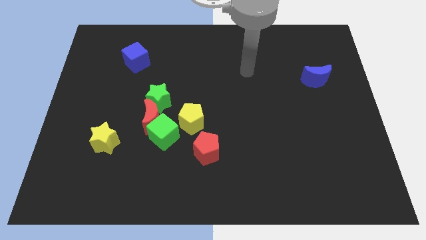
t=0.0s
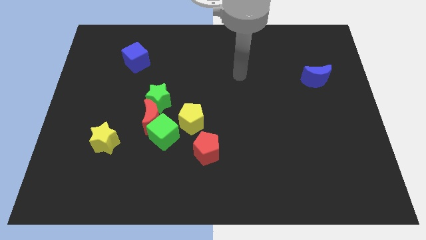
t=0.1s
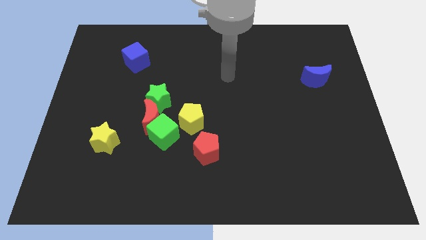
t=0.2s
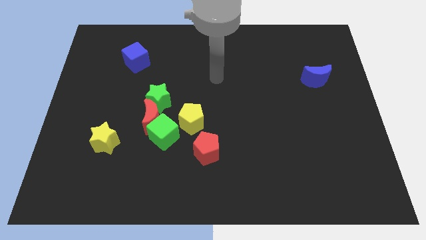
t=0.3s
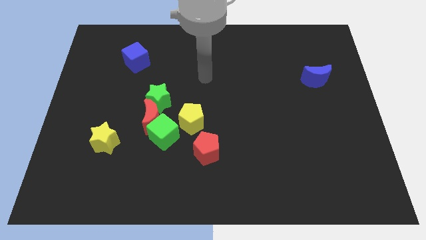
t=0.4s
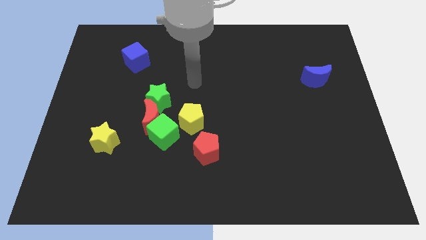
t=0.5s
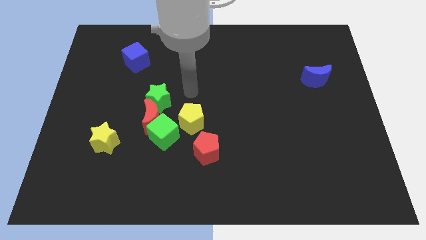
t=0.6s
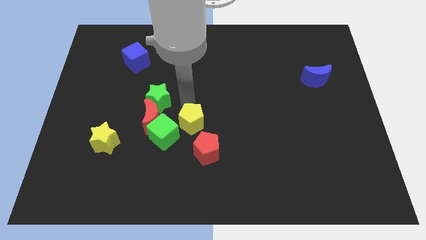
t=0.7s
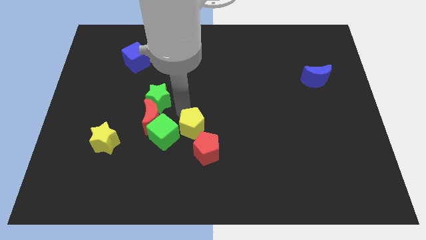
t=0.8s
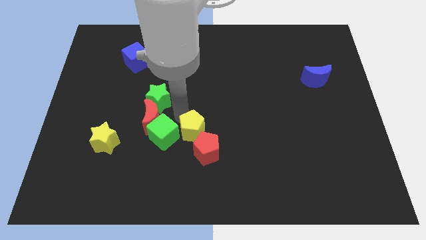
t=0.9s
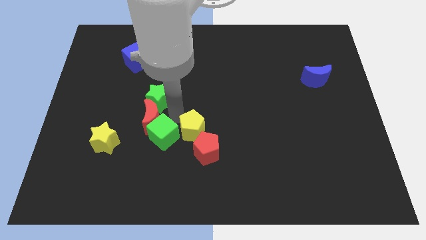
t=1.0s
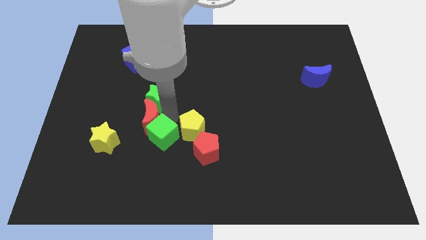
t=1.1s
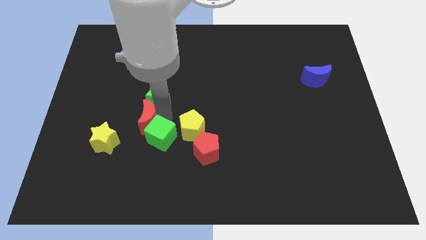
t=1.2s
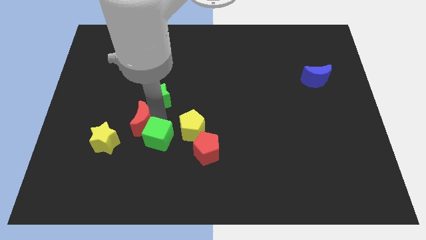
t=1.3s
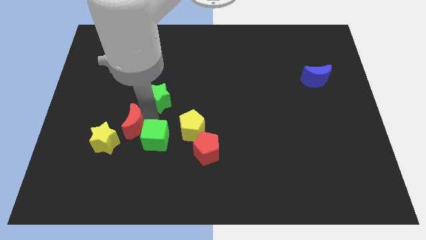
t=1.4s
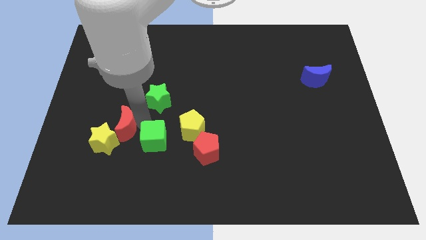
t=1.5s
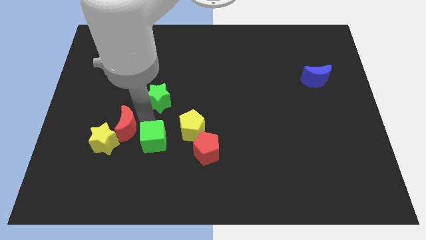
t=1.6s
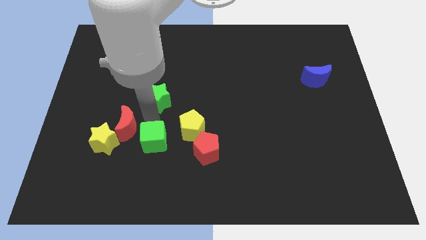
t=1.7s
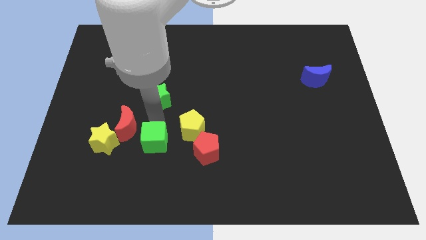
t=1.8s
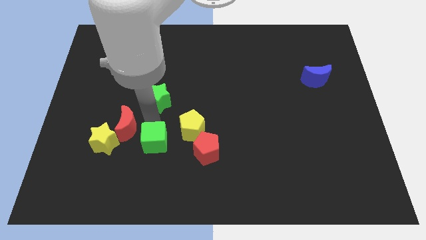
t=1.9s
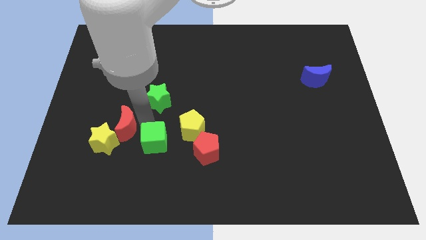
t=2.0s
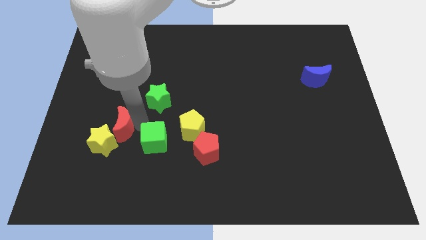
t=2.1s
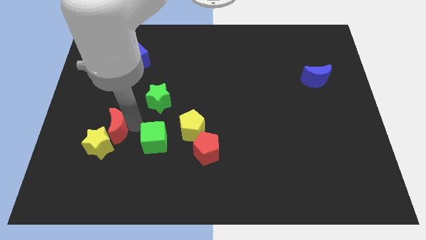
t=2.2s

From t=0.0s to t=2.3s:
pull the red moon apart from the green cube, green star, and yellow pentagon

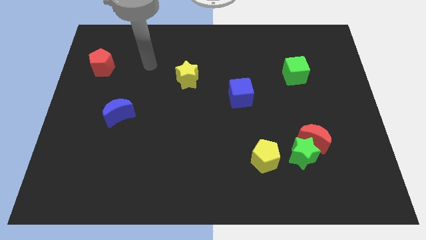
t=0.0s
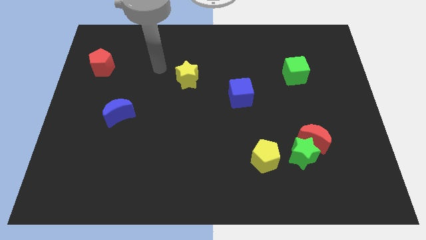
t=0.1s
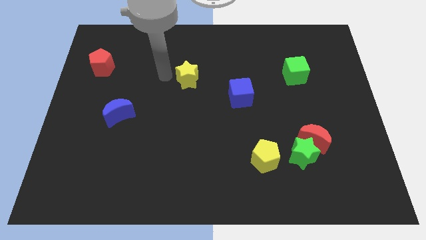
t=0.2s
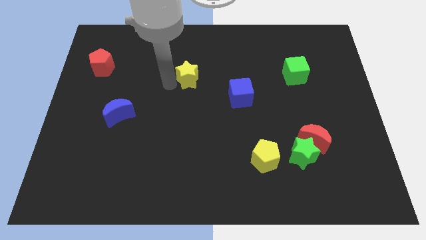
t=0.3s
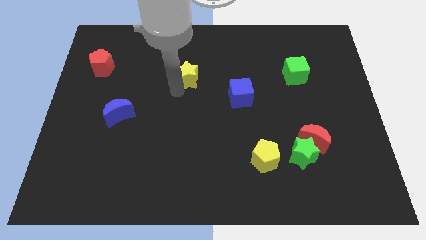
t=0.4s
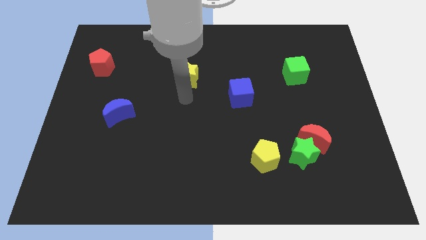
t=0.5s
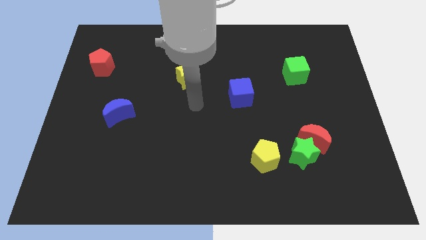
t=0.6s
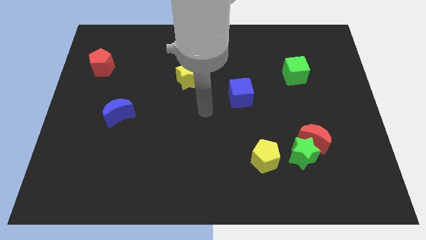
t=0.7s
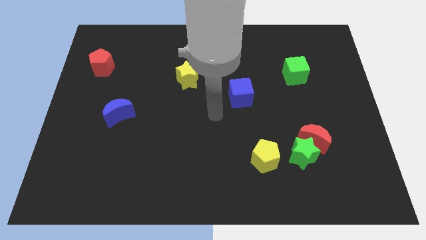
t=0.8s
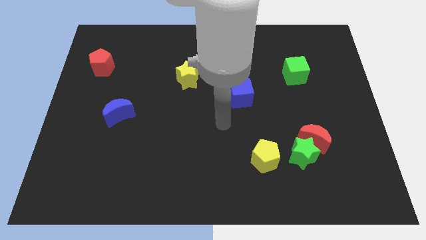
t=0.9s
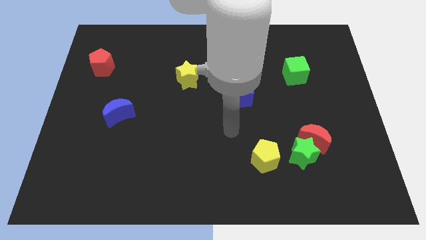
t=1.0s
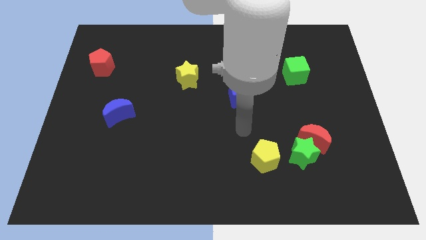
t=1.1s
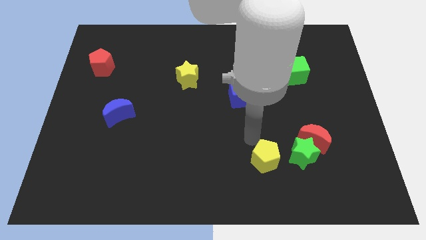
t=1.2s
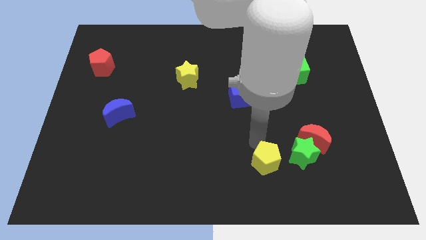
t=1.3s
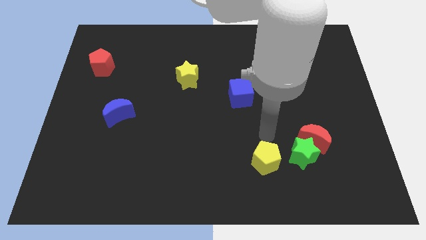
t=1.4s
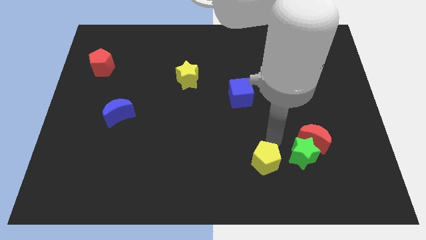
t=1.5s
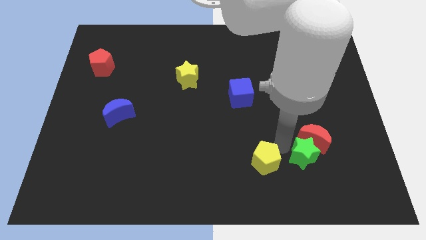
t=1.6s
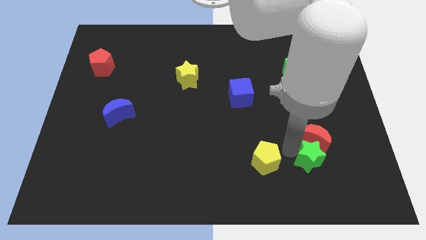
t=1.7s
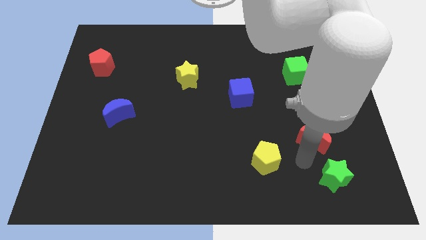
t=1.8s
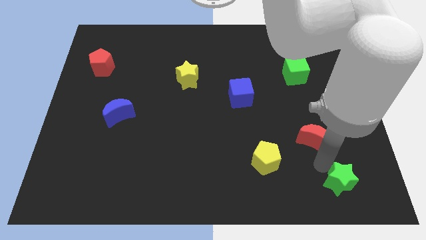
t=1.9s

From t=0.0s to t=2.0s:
separate the red moon from the green star

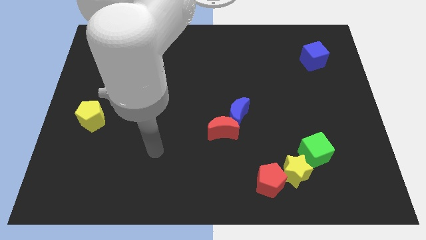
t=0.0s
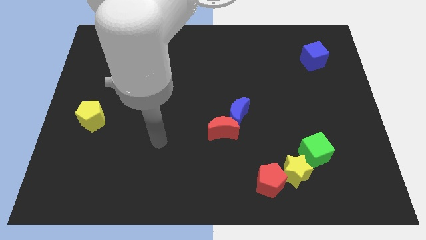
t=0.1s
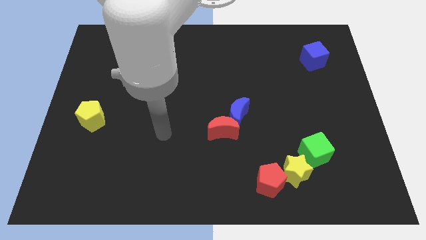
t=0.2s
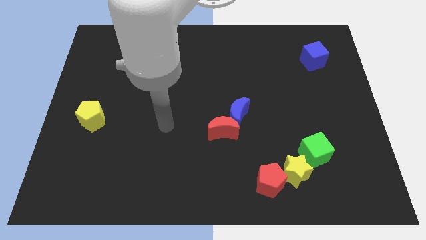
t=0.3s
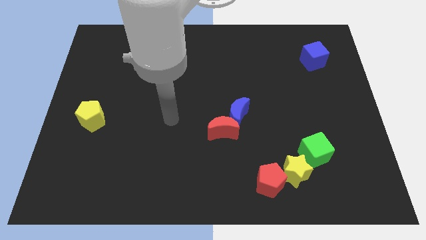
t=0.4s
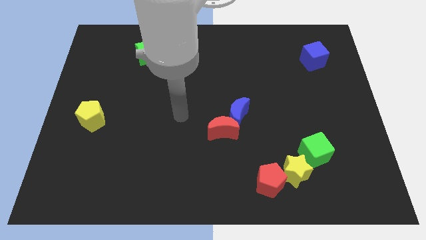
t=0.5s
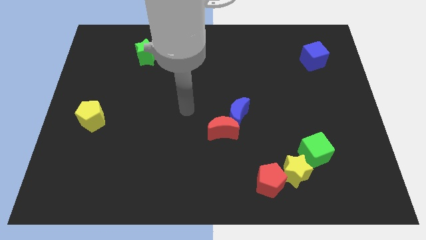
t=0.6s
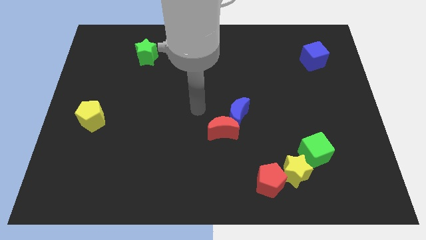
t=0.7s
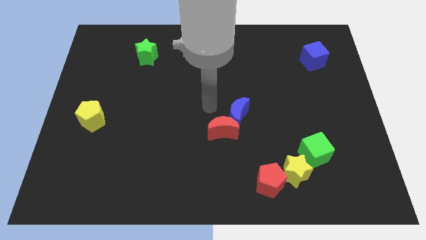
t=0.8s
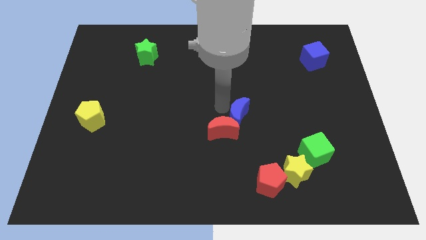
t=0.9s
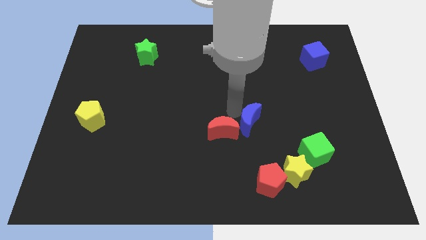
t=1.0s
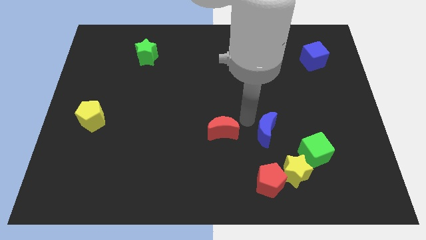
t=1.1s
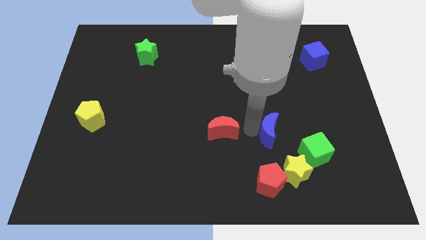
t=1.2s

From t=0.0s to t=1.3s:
separate the red moon from the blue moon

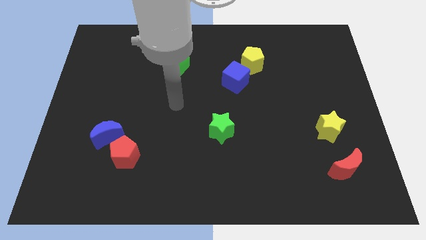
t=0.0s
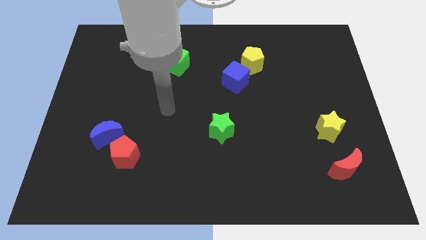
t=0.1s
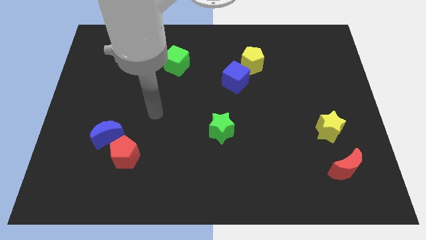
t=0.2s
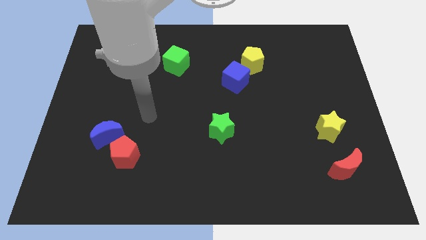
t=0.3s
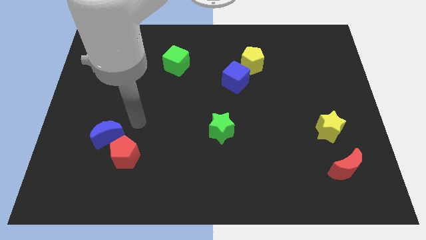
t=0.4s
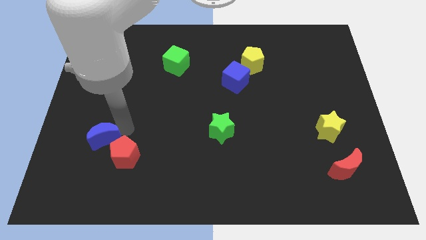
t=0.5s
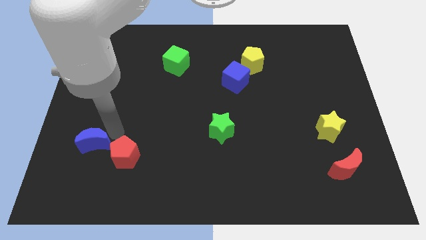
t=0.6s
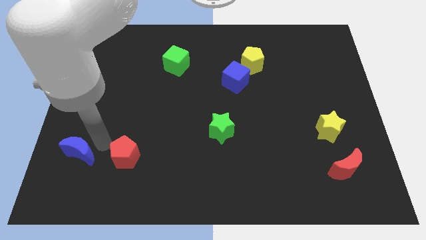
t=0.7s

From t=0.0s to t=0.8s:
move the red pentagon away from the blue moon

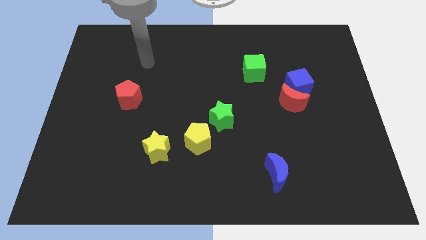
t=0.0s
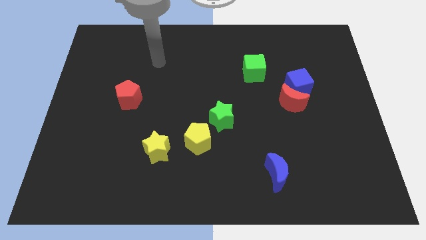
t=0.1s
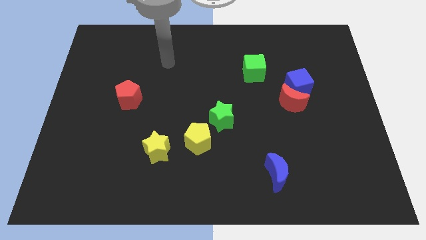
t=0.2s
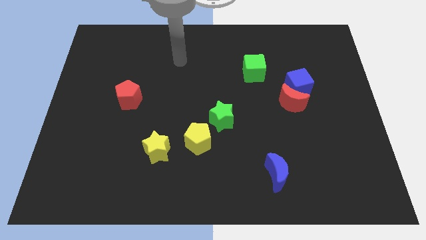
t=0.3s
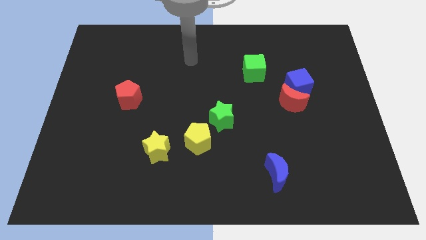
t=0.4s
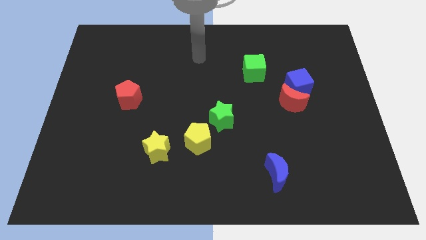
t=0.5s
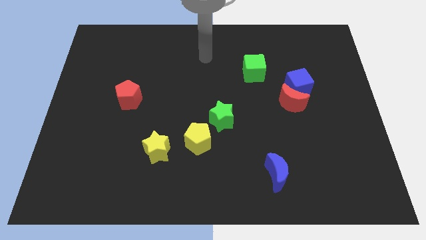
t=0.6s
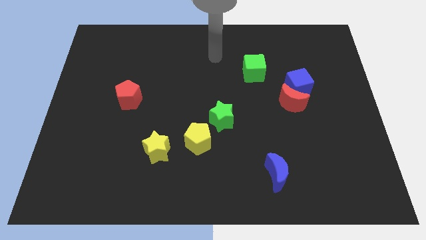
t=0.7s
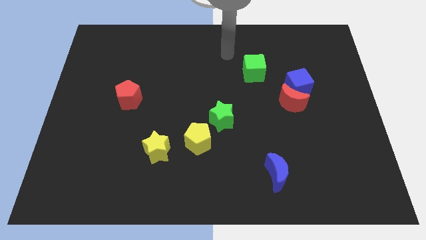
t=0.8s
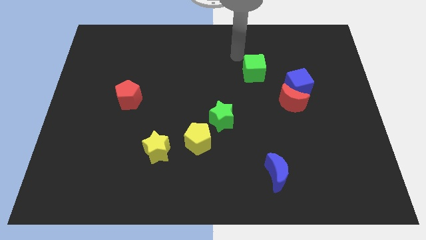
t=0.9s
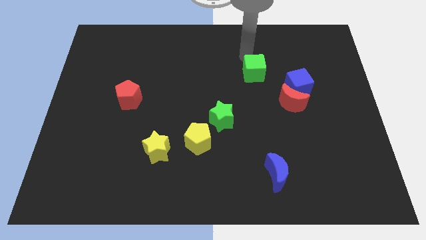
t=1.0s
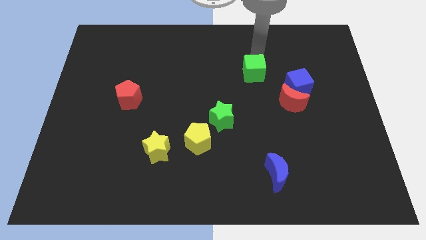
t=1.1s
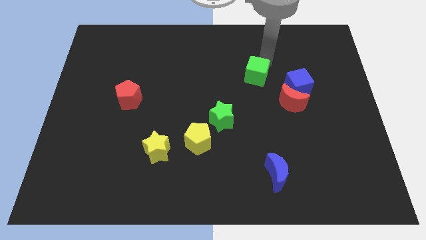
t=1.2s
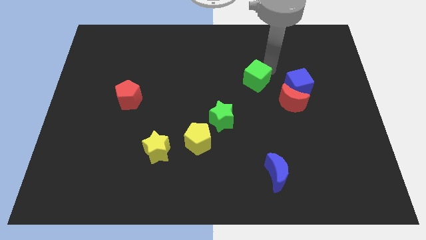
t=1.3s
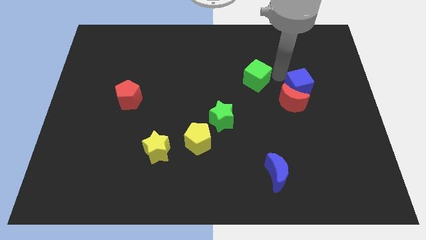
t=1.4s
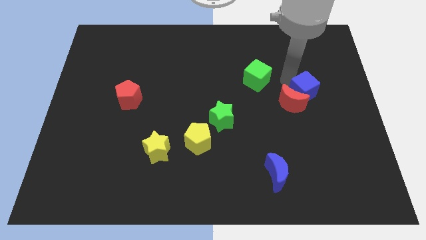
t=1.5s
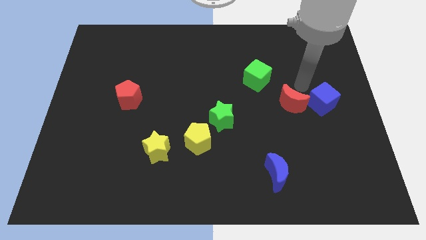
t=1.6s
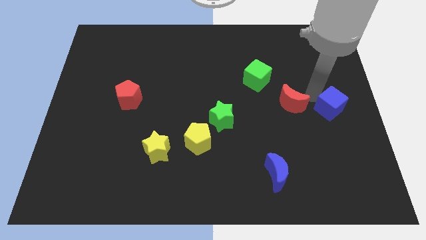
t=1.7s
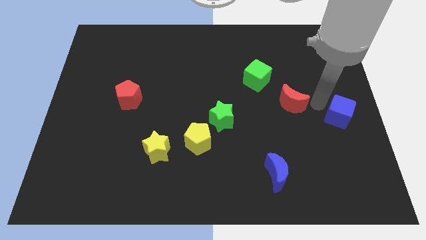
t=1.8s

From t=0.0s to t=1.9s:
separate the red moon from the blue cube

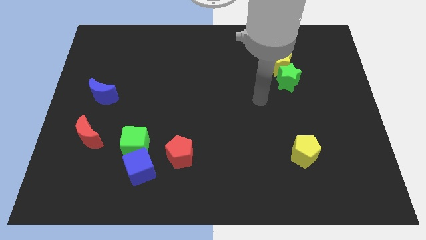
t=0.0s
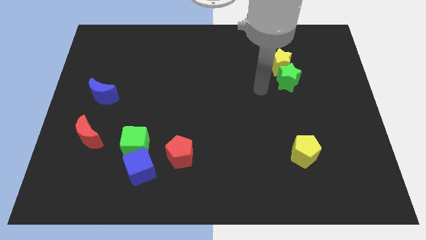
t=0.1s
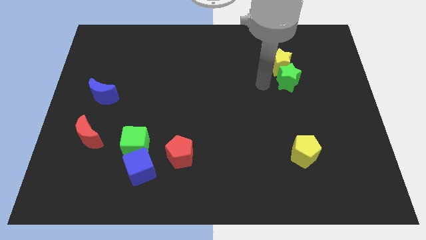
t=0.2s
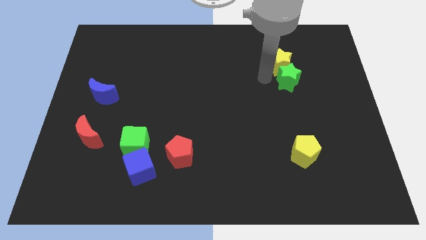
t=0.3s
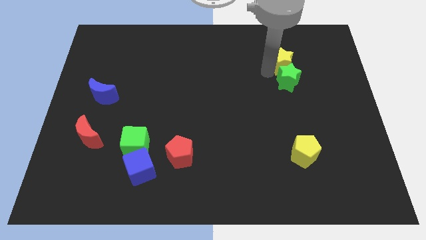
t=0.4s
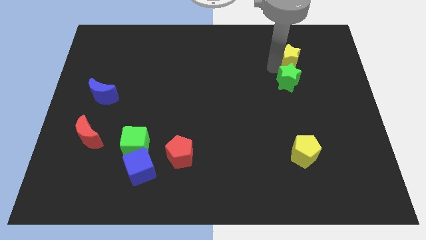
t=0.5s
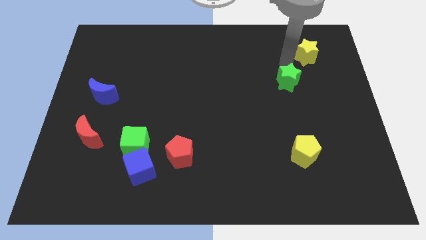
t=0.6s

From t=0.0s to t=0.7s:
separate the green star from the yellow star

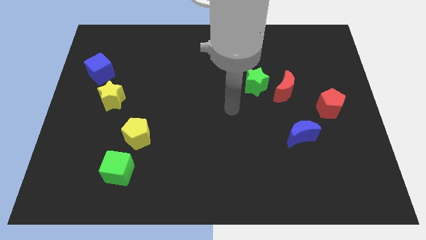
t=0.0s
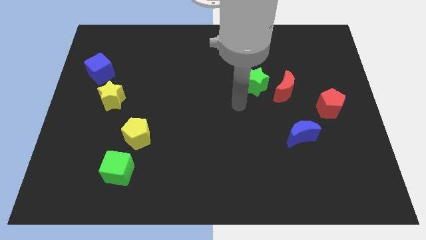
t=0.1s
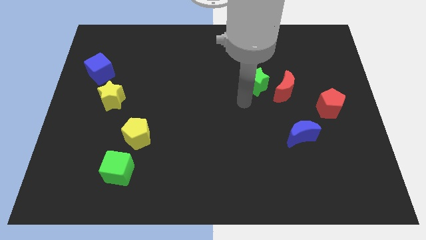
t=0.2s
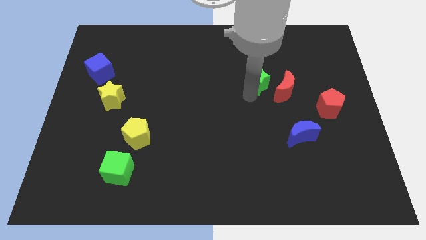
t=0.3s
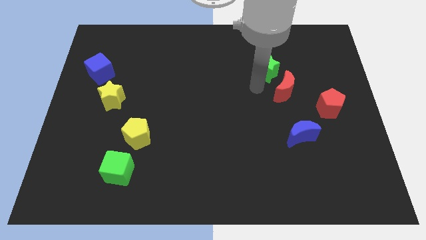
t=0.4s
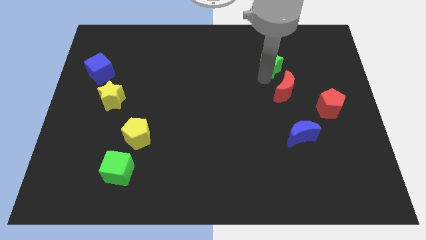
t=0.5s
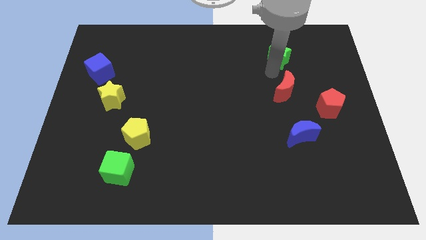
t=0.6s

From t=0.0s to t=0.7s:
move the red moon away from the green star
